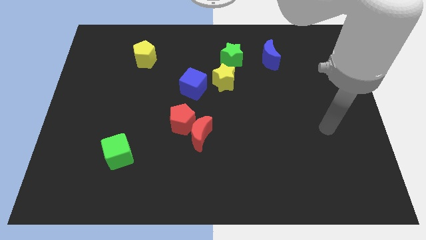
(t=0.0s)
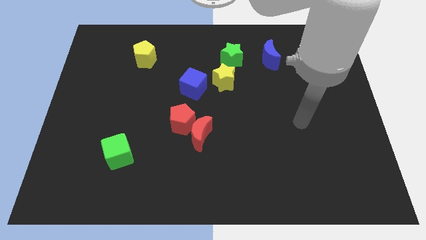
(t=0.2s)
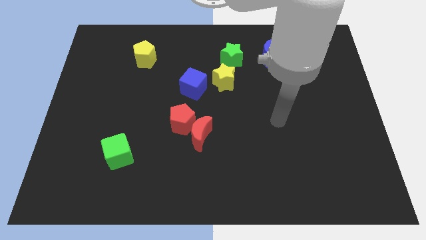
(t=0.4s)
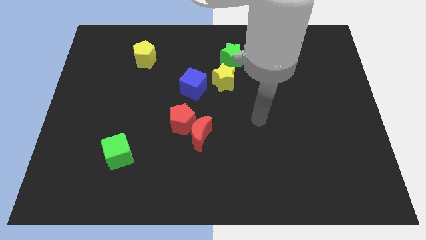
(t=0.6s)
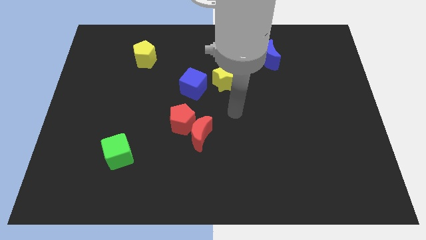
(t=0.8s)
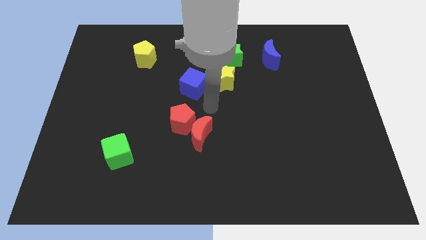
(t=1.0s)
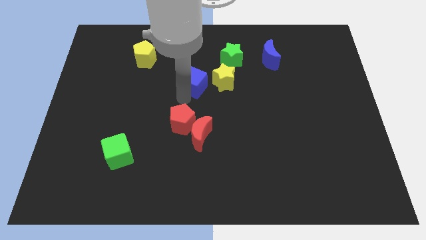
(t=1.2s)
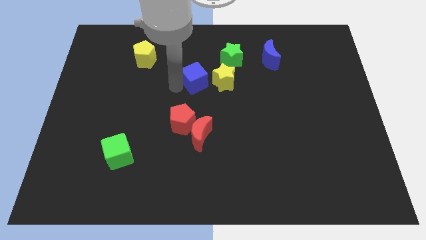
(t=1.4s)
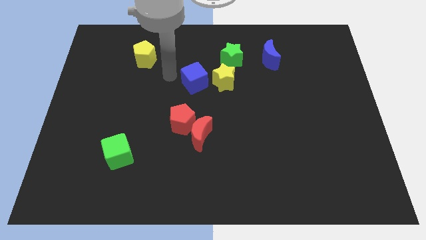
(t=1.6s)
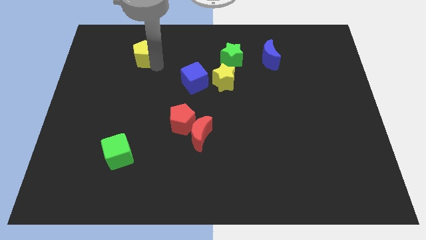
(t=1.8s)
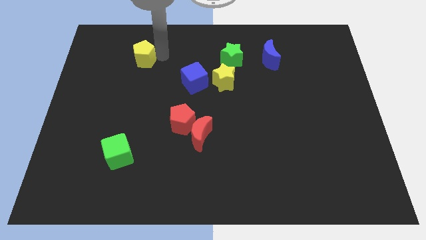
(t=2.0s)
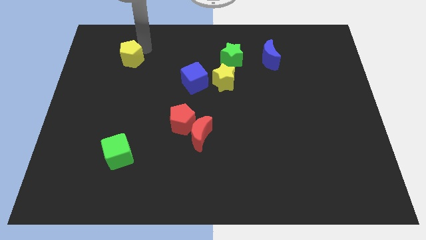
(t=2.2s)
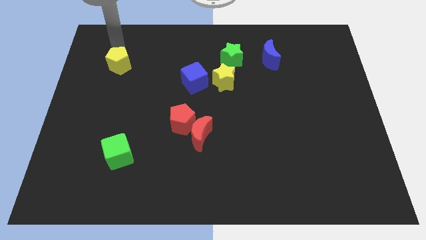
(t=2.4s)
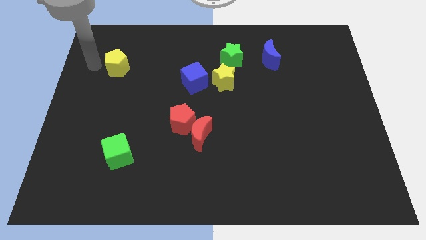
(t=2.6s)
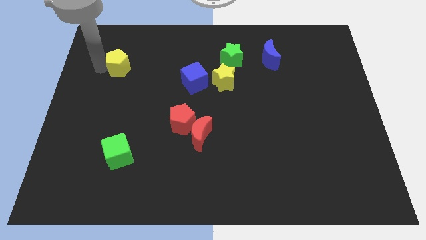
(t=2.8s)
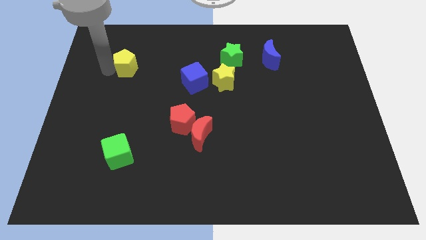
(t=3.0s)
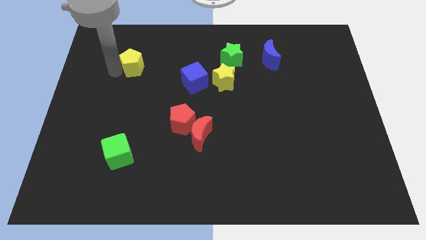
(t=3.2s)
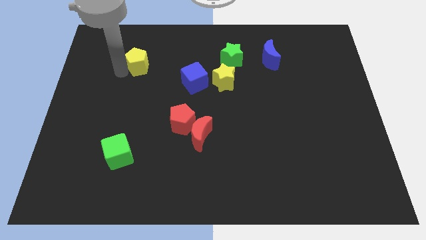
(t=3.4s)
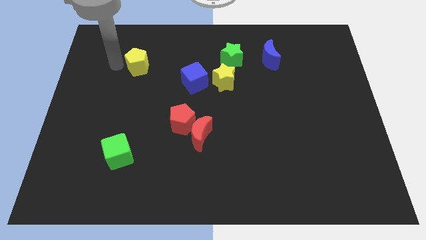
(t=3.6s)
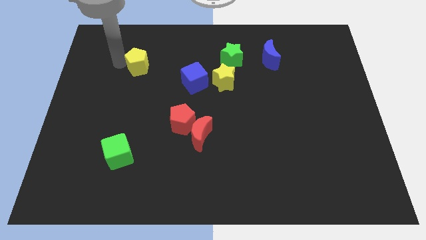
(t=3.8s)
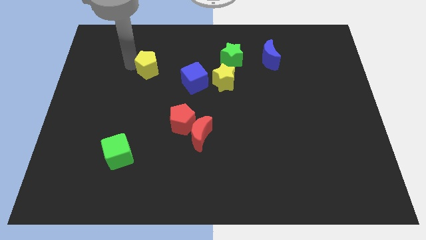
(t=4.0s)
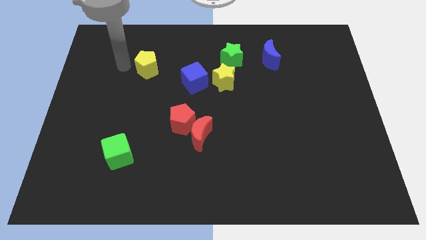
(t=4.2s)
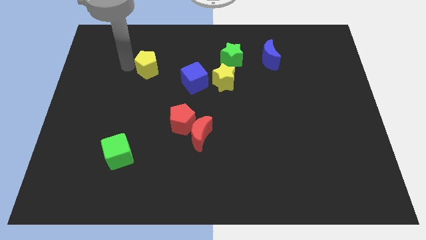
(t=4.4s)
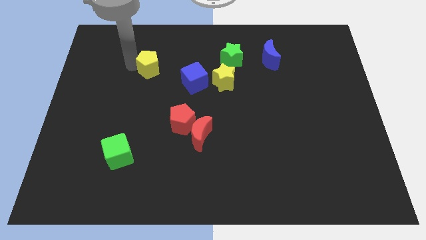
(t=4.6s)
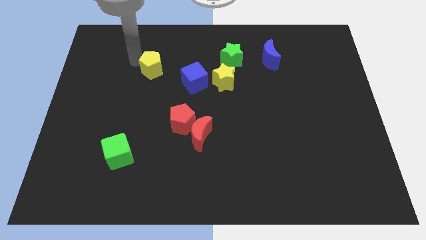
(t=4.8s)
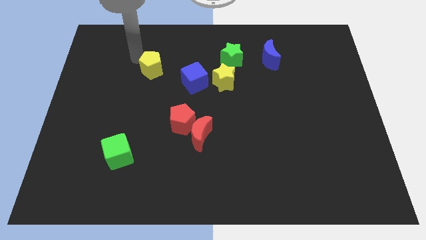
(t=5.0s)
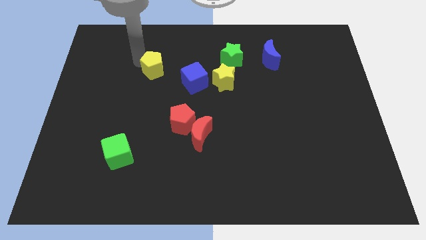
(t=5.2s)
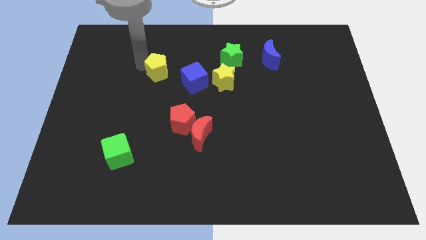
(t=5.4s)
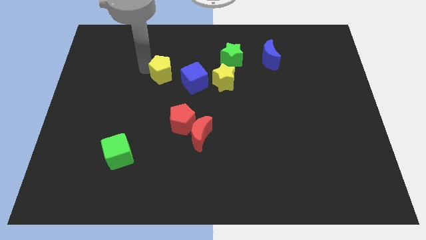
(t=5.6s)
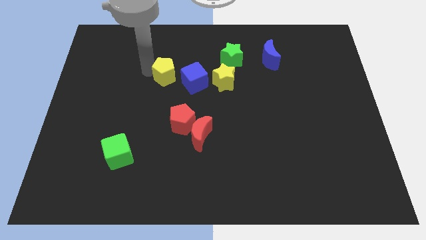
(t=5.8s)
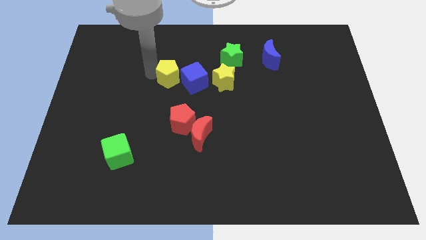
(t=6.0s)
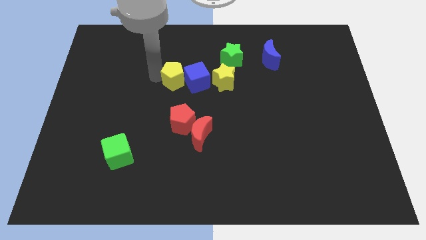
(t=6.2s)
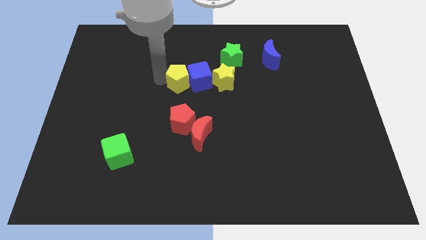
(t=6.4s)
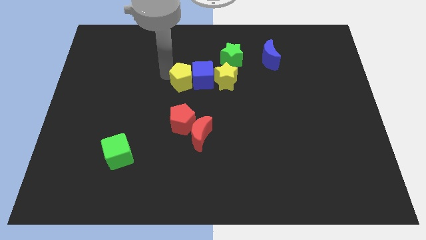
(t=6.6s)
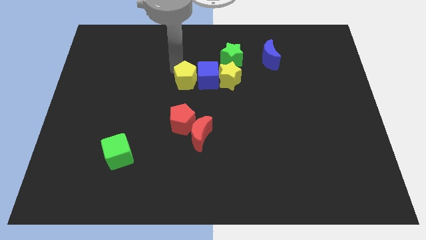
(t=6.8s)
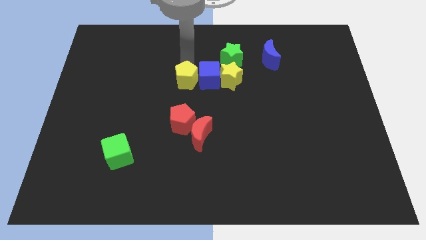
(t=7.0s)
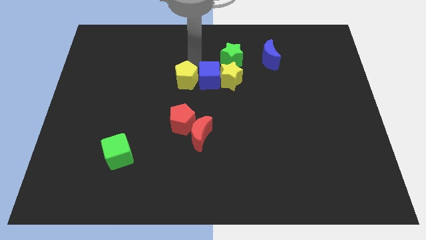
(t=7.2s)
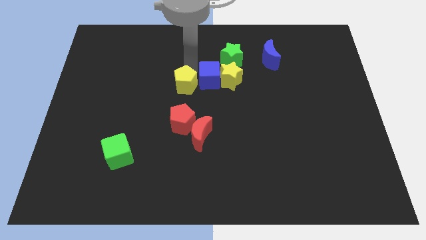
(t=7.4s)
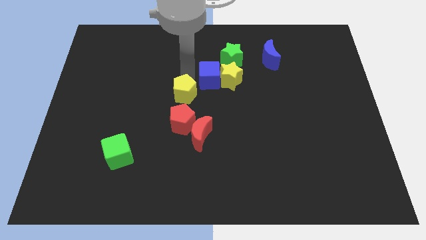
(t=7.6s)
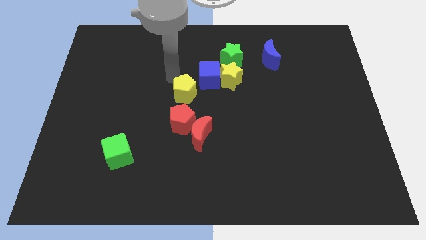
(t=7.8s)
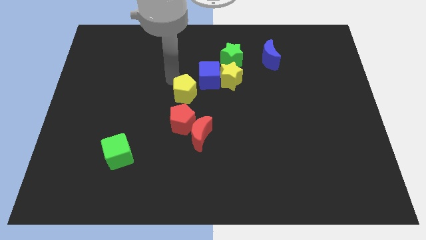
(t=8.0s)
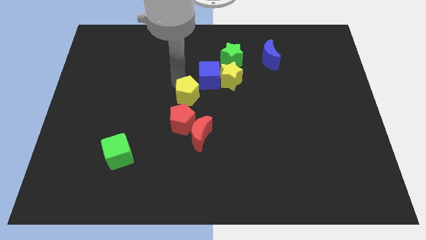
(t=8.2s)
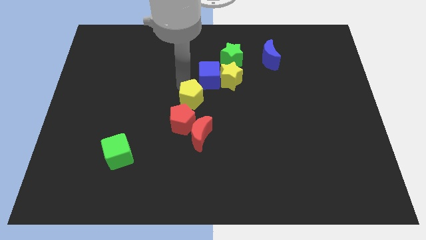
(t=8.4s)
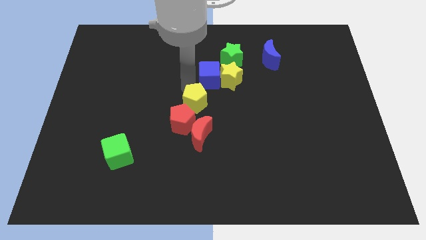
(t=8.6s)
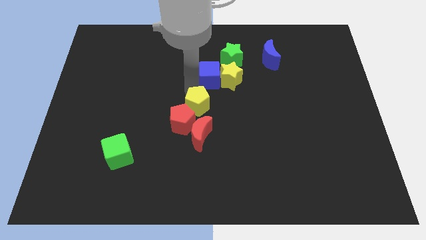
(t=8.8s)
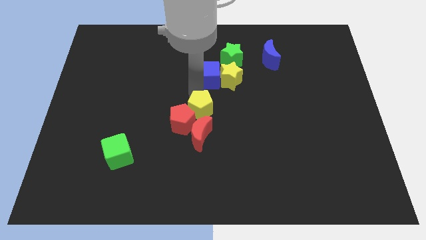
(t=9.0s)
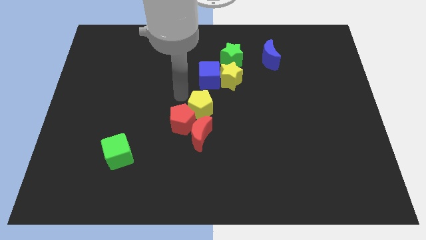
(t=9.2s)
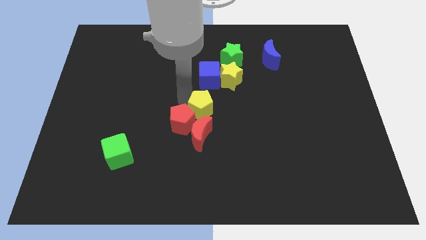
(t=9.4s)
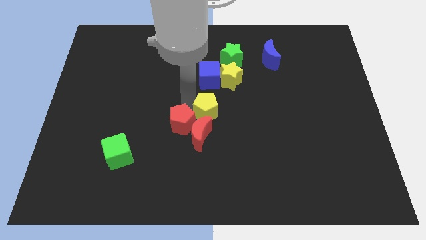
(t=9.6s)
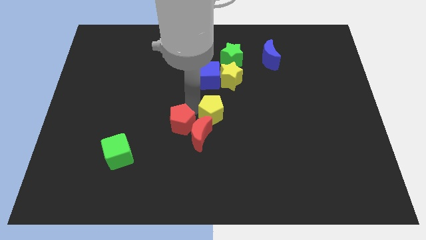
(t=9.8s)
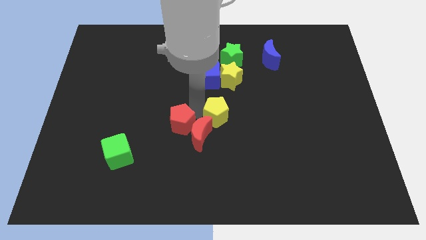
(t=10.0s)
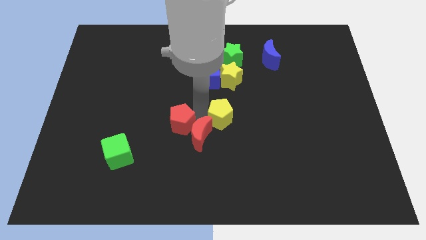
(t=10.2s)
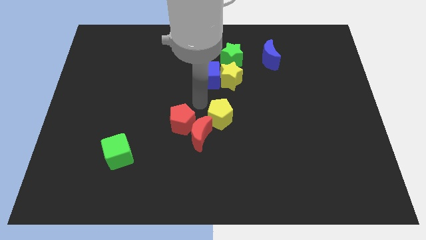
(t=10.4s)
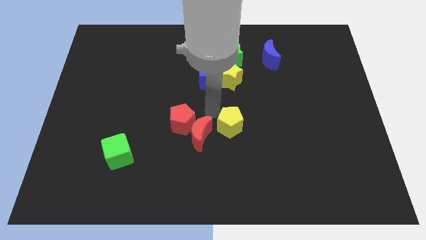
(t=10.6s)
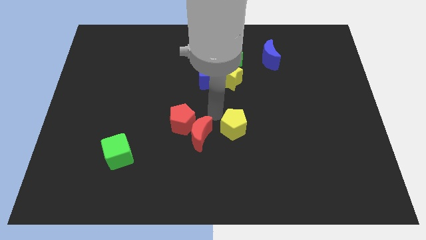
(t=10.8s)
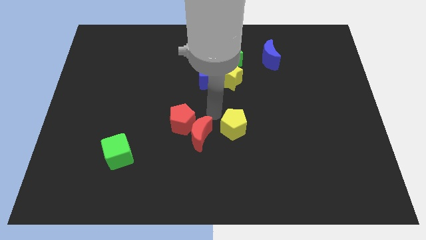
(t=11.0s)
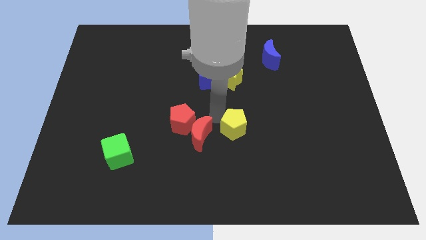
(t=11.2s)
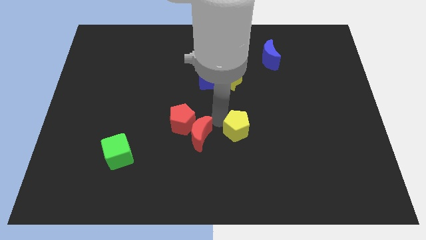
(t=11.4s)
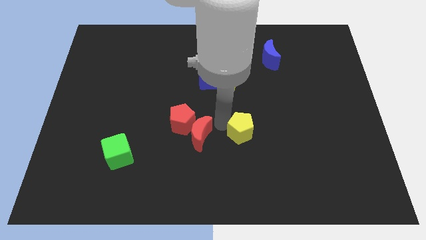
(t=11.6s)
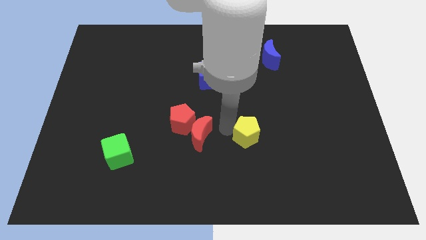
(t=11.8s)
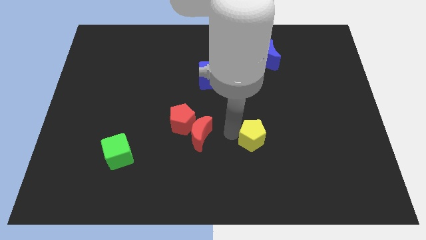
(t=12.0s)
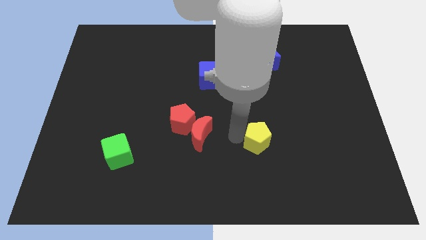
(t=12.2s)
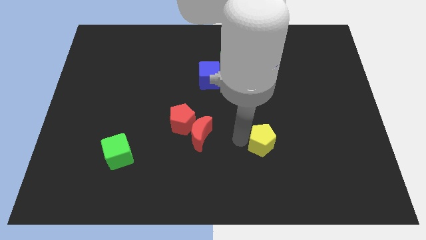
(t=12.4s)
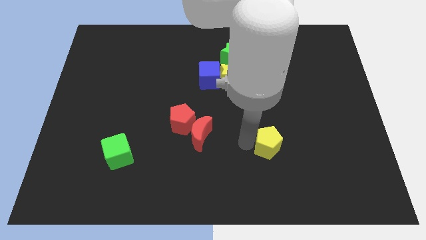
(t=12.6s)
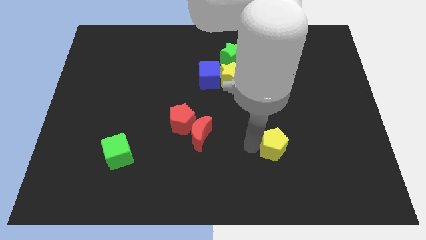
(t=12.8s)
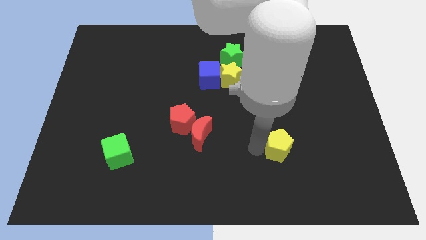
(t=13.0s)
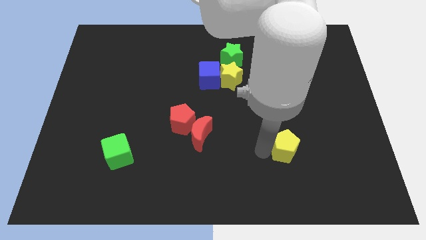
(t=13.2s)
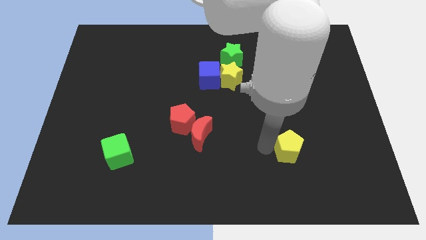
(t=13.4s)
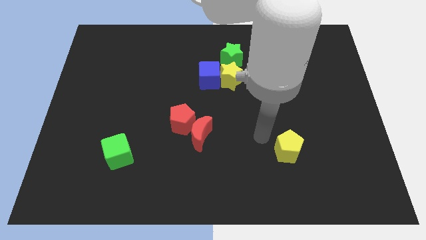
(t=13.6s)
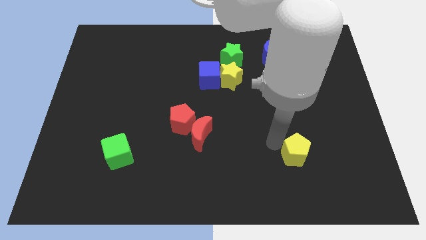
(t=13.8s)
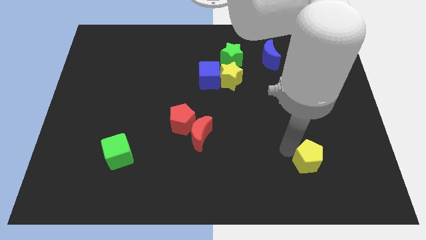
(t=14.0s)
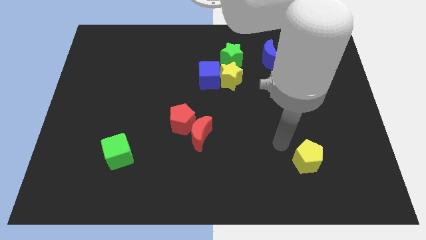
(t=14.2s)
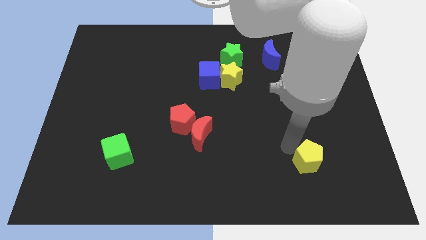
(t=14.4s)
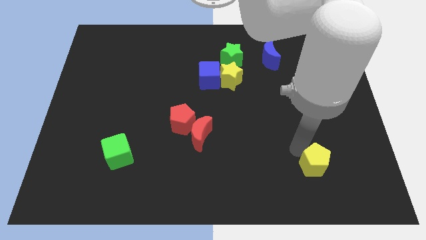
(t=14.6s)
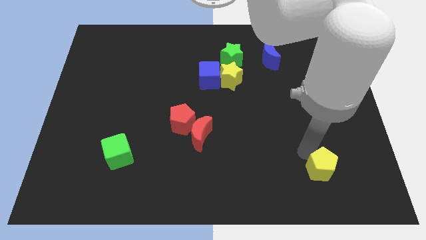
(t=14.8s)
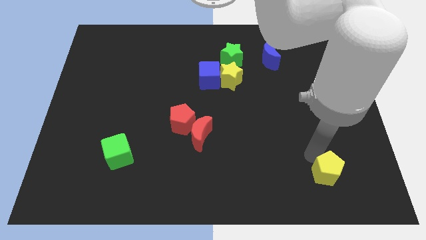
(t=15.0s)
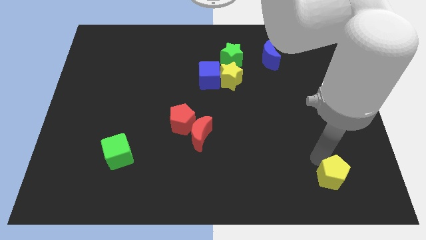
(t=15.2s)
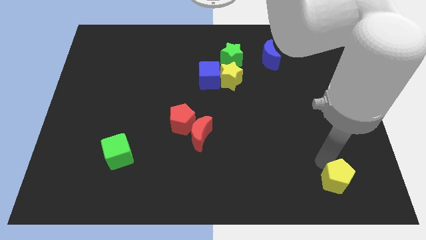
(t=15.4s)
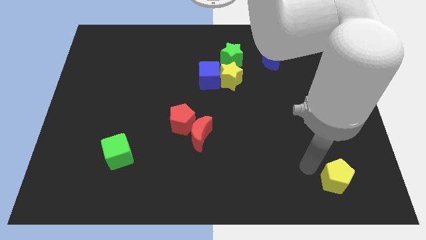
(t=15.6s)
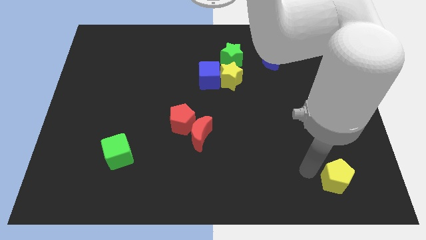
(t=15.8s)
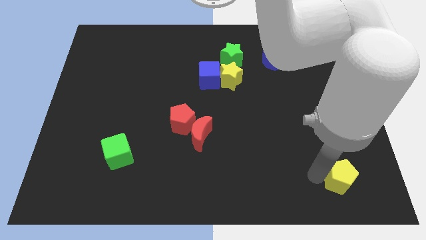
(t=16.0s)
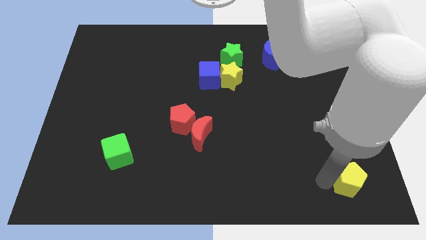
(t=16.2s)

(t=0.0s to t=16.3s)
put the yellow pentagon to the bottom right of the board
